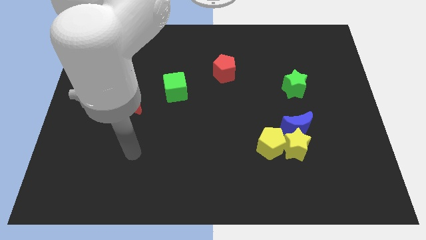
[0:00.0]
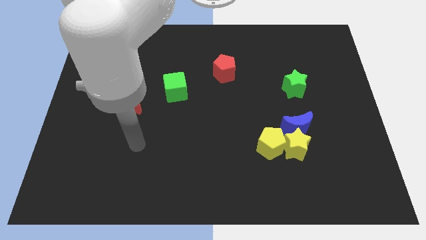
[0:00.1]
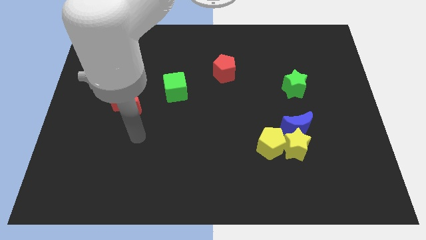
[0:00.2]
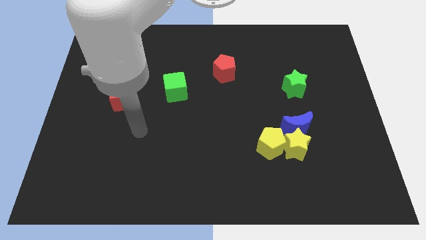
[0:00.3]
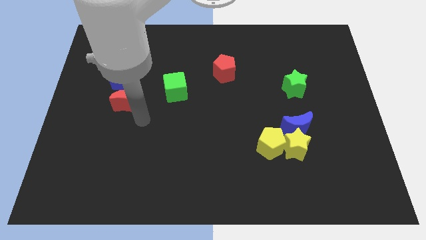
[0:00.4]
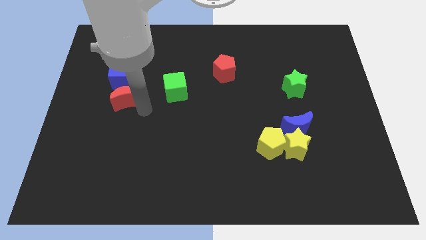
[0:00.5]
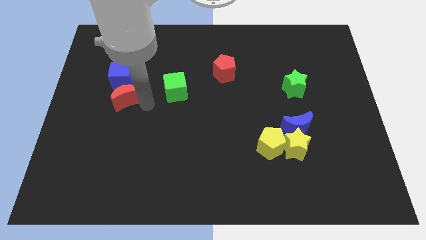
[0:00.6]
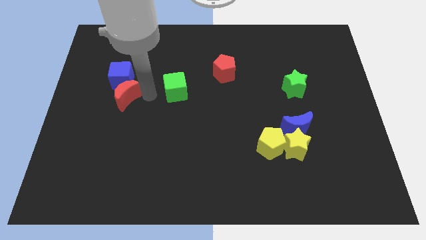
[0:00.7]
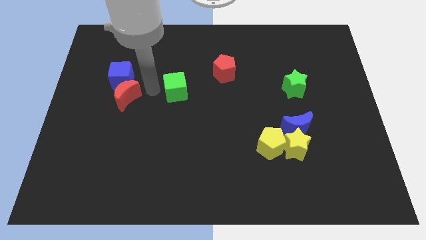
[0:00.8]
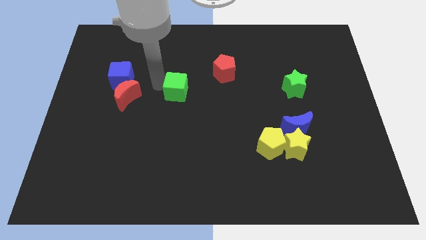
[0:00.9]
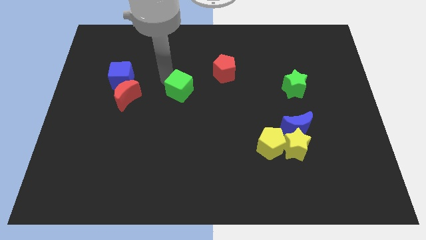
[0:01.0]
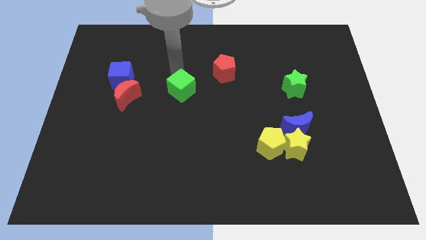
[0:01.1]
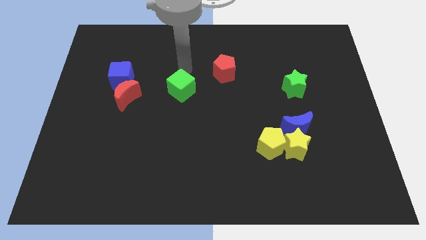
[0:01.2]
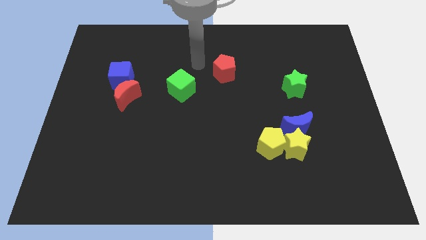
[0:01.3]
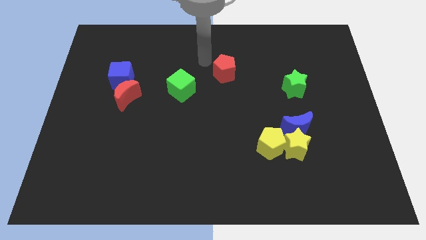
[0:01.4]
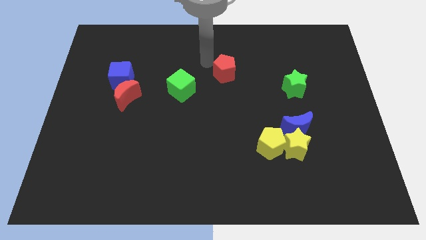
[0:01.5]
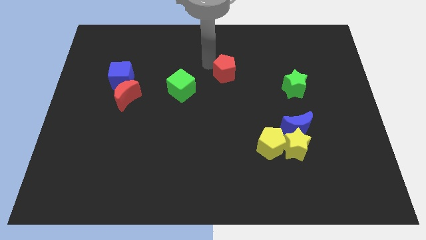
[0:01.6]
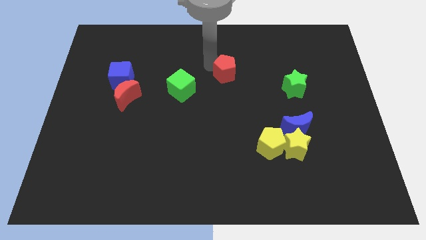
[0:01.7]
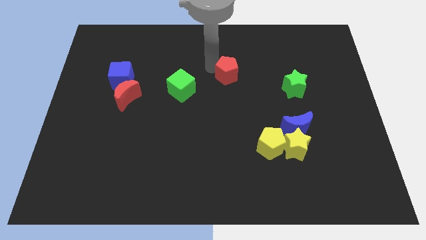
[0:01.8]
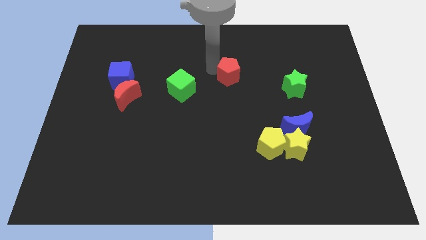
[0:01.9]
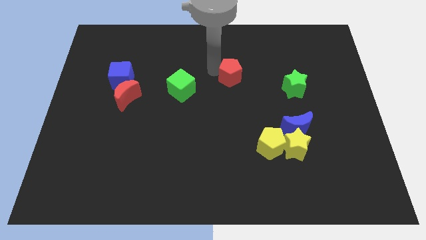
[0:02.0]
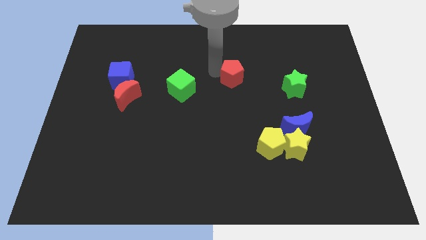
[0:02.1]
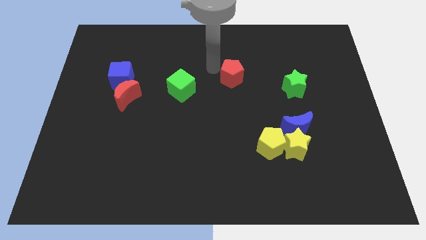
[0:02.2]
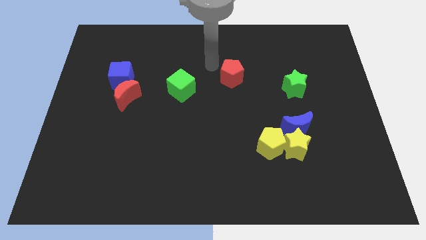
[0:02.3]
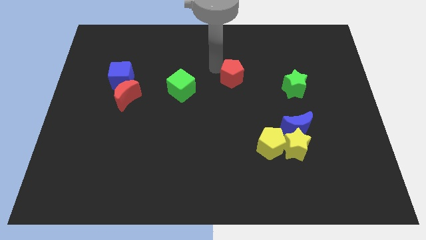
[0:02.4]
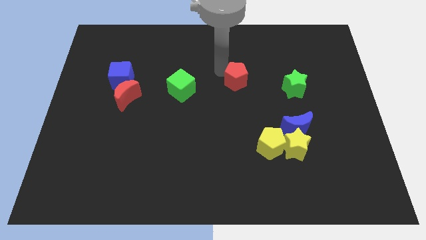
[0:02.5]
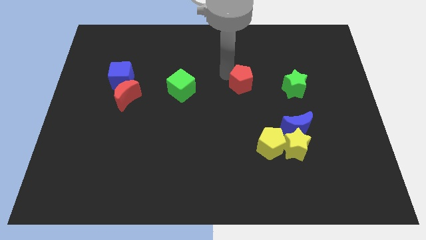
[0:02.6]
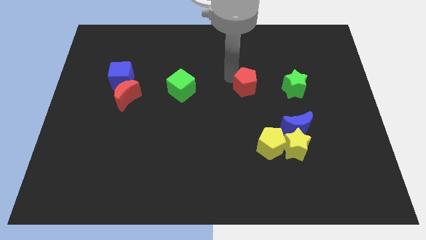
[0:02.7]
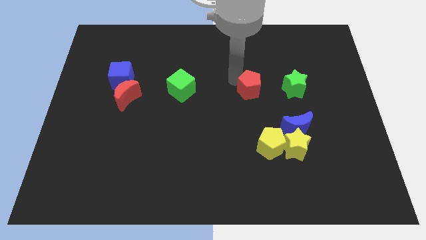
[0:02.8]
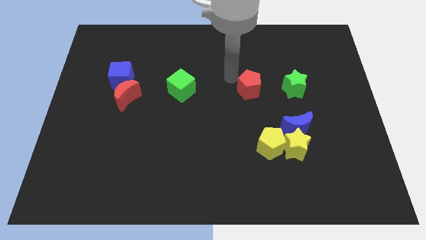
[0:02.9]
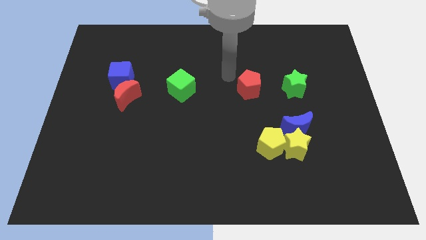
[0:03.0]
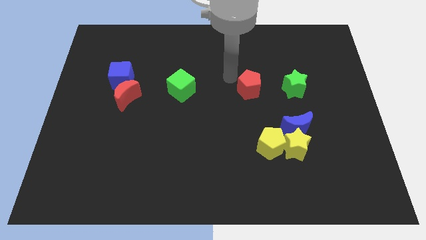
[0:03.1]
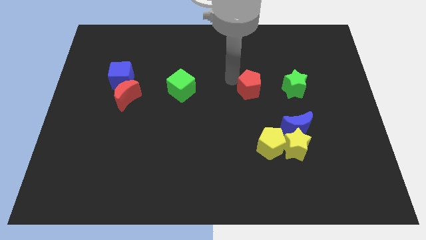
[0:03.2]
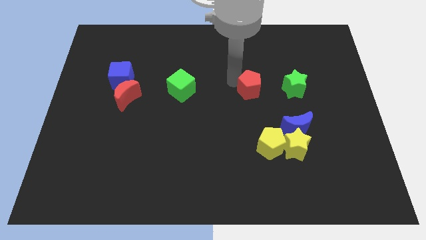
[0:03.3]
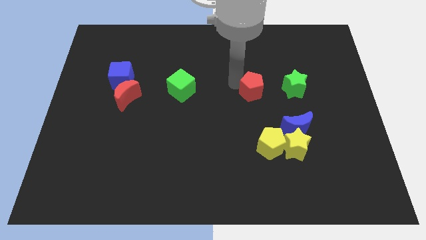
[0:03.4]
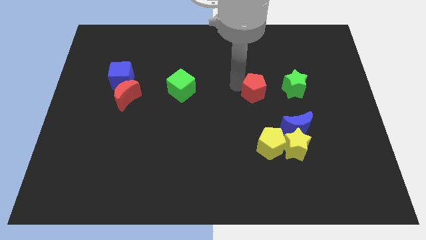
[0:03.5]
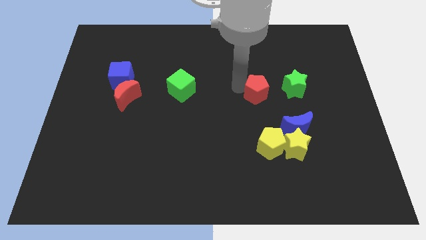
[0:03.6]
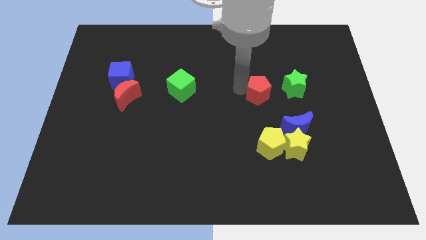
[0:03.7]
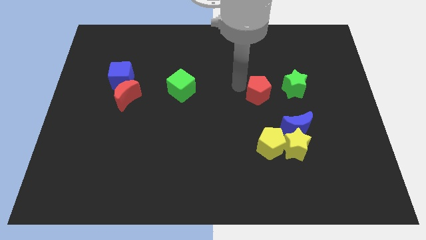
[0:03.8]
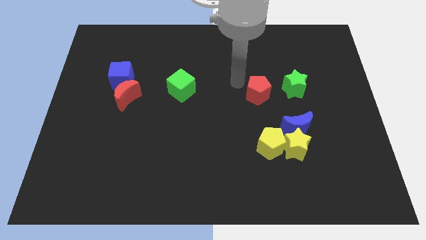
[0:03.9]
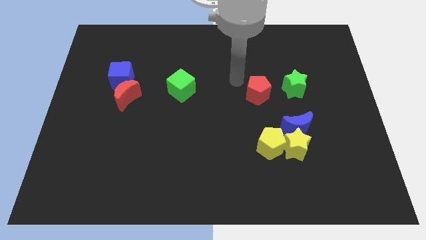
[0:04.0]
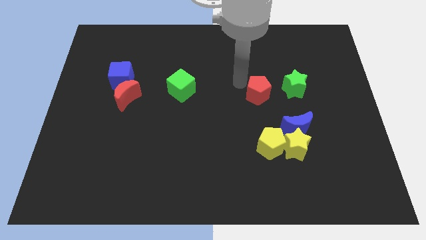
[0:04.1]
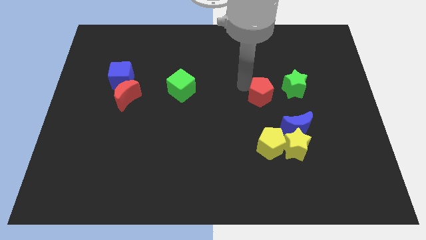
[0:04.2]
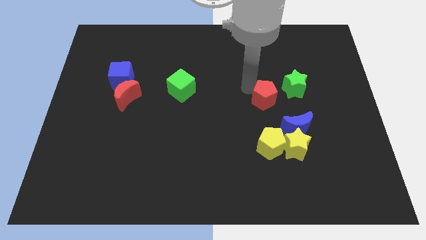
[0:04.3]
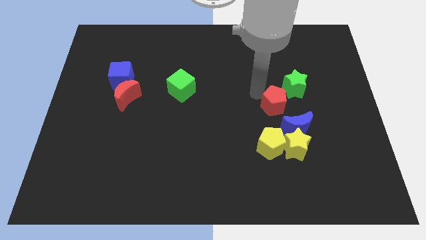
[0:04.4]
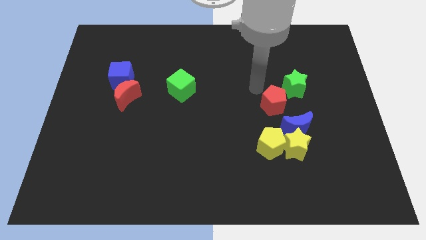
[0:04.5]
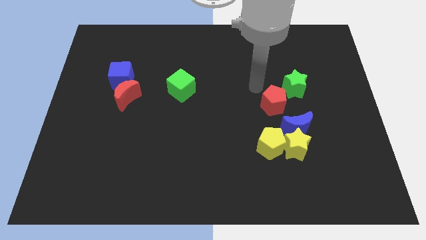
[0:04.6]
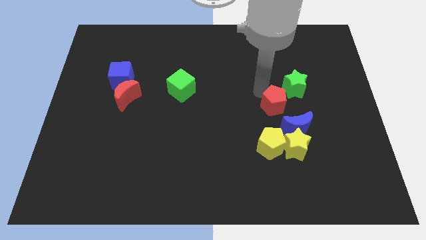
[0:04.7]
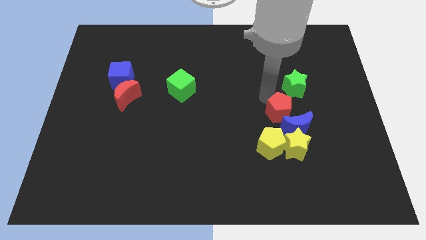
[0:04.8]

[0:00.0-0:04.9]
slide the red pentagon to the blue moon
